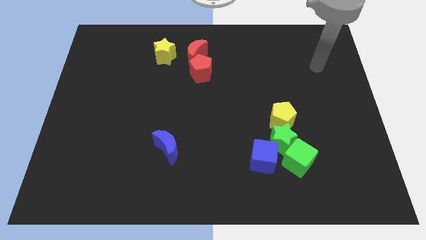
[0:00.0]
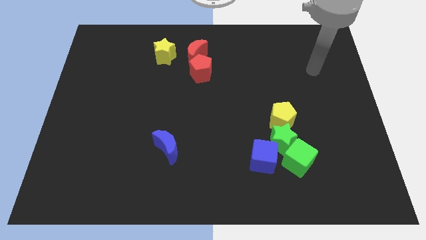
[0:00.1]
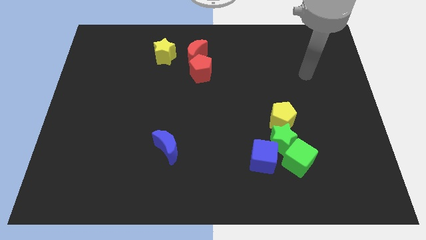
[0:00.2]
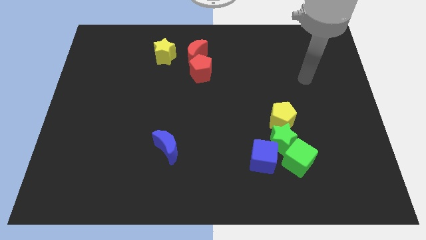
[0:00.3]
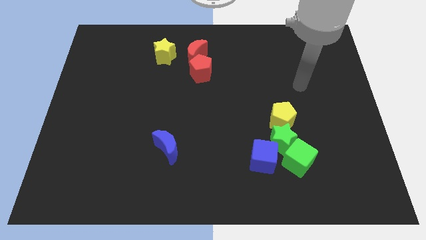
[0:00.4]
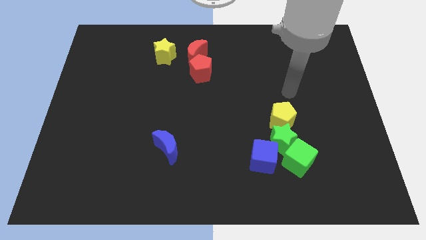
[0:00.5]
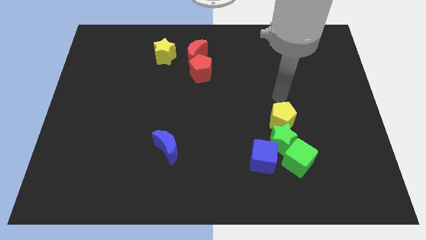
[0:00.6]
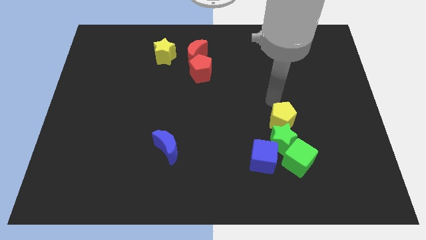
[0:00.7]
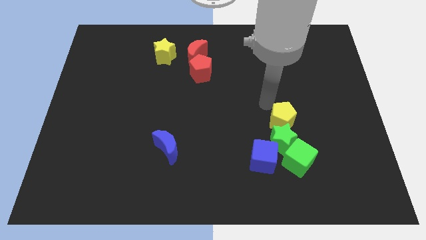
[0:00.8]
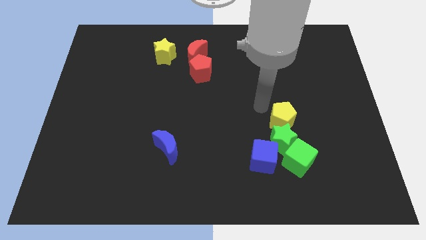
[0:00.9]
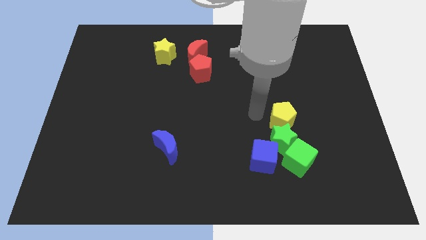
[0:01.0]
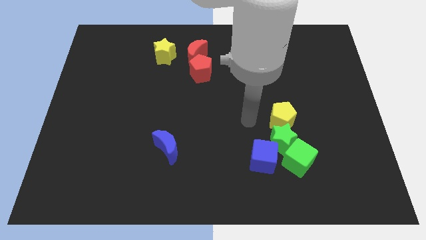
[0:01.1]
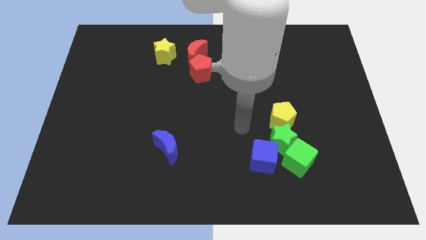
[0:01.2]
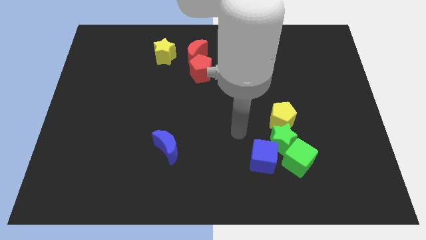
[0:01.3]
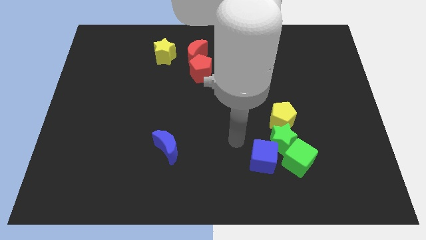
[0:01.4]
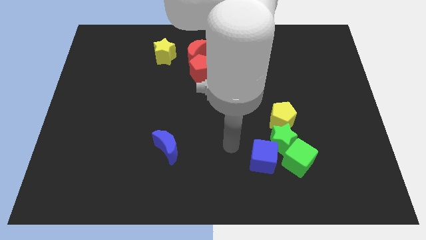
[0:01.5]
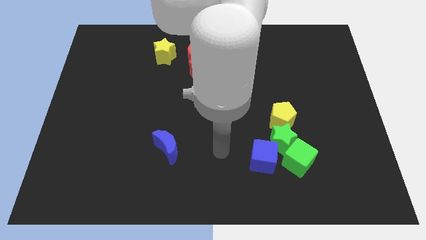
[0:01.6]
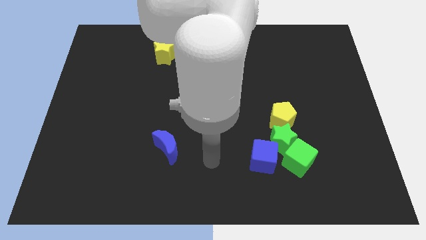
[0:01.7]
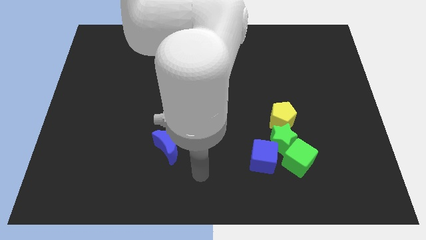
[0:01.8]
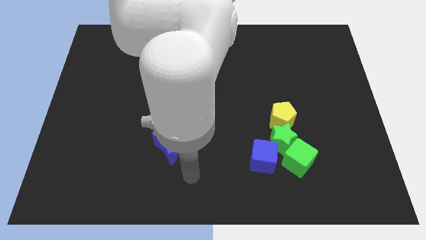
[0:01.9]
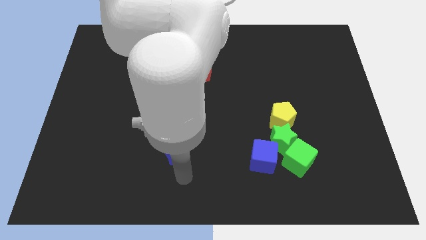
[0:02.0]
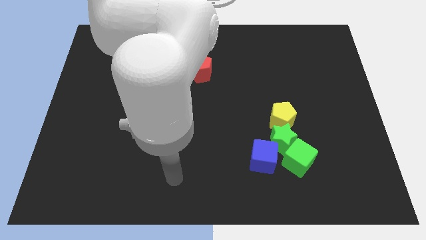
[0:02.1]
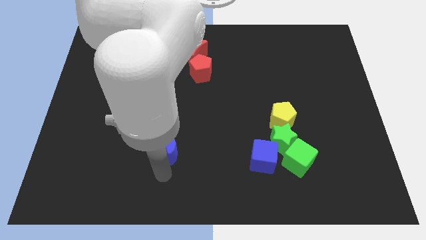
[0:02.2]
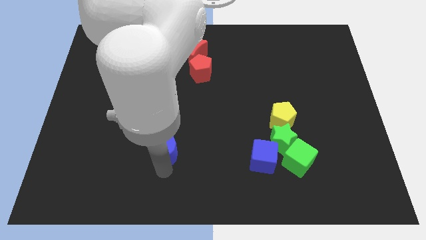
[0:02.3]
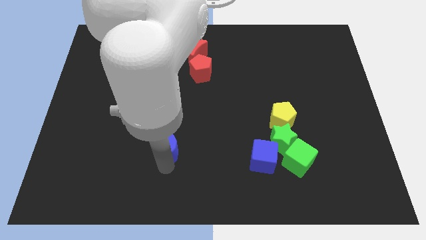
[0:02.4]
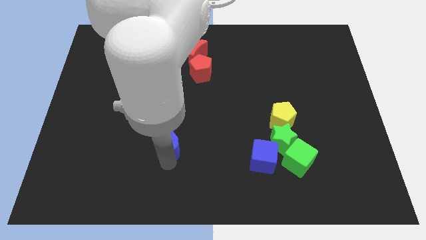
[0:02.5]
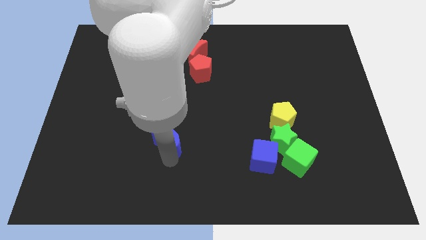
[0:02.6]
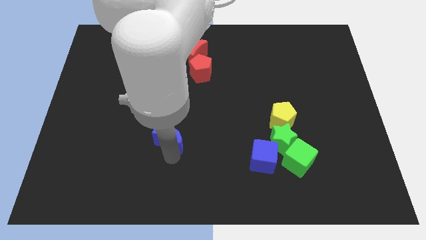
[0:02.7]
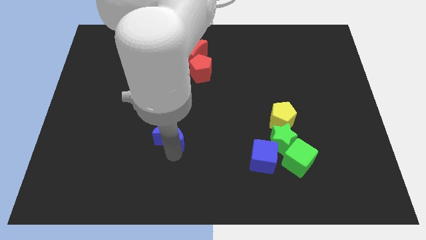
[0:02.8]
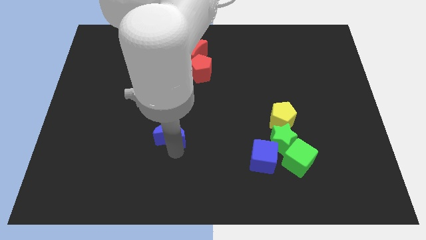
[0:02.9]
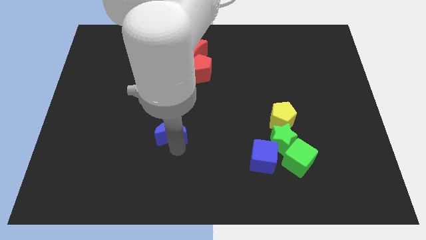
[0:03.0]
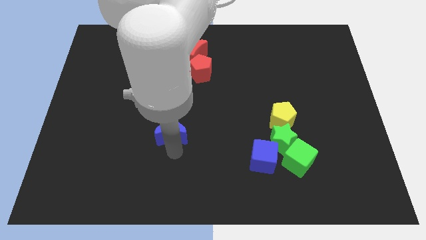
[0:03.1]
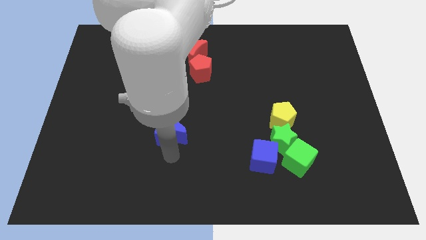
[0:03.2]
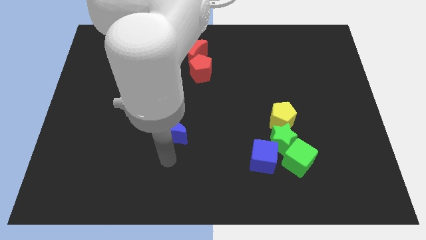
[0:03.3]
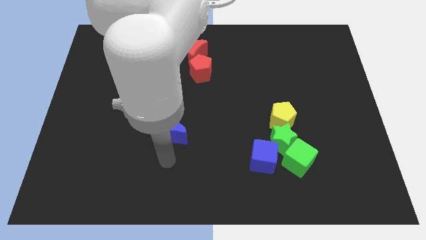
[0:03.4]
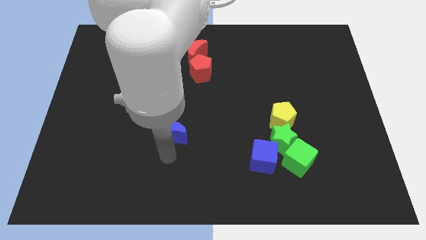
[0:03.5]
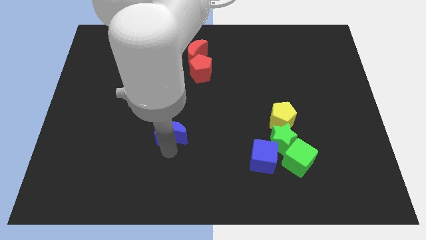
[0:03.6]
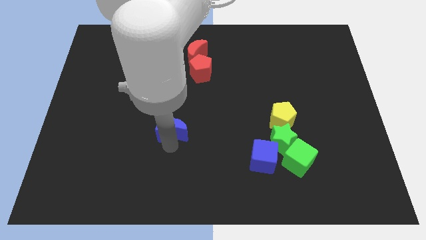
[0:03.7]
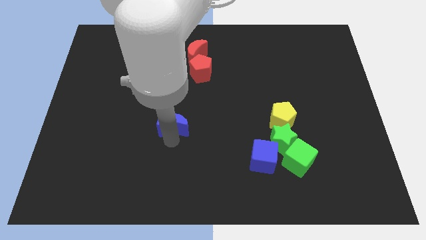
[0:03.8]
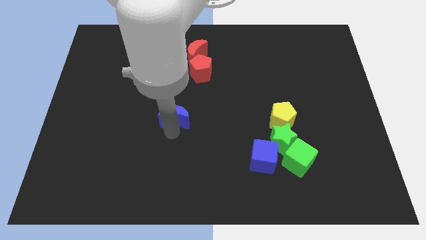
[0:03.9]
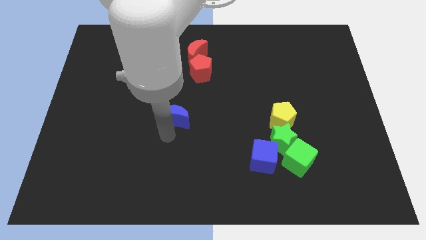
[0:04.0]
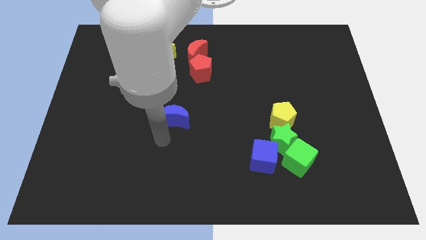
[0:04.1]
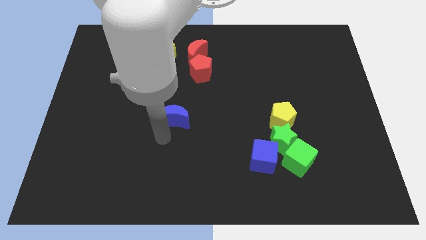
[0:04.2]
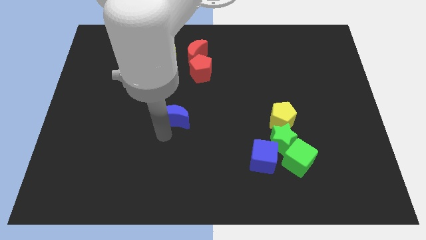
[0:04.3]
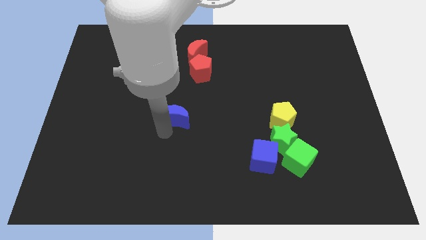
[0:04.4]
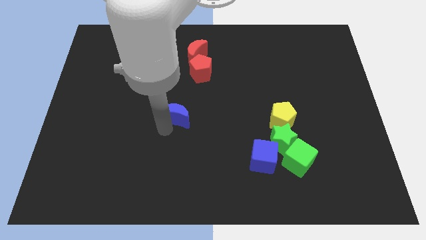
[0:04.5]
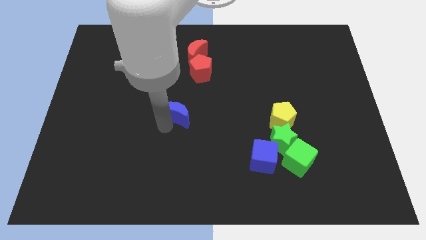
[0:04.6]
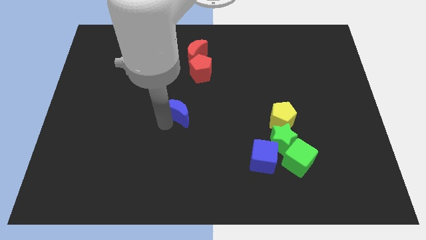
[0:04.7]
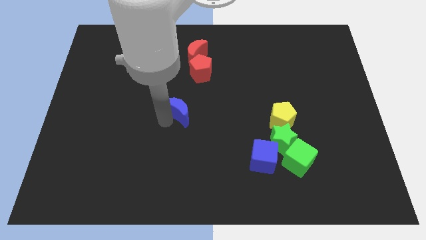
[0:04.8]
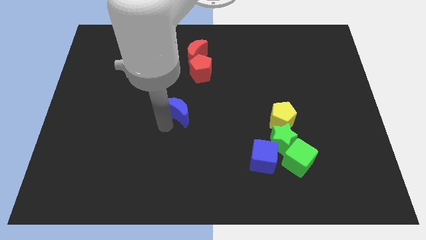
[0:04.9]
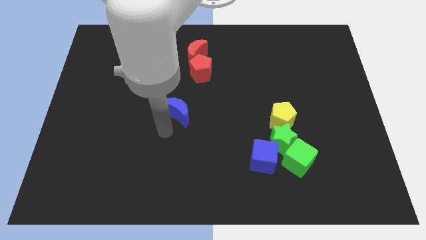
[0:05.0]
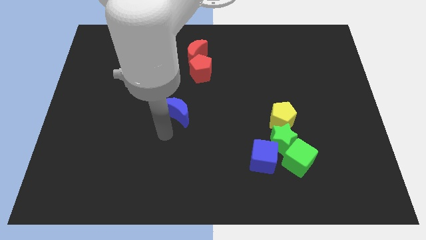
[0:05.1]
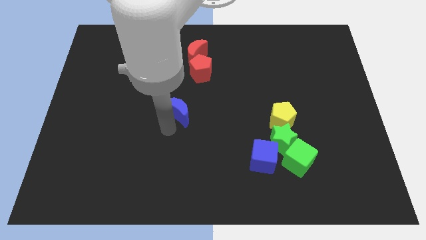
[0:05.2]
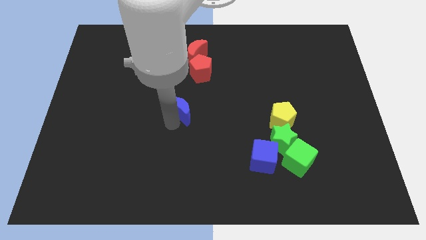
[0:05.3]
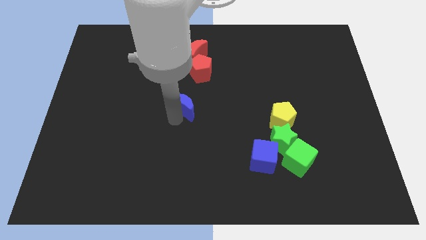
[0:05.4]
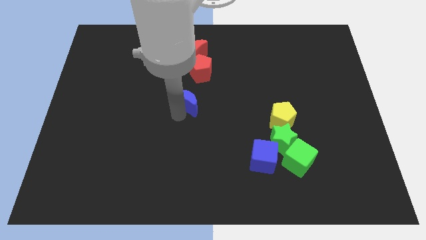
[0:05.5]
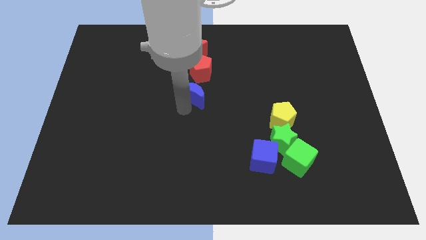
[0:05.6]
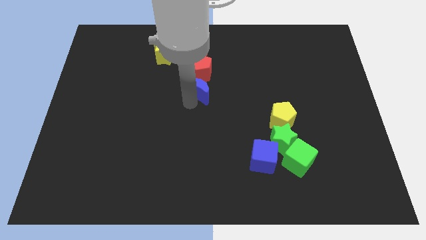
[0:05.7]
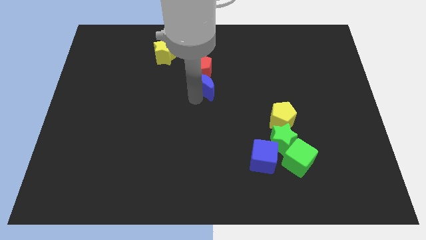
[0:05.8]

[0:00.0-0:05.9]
put the blue moon next to the red pentagon

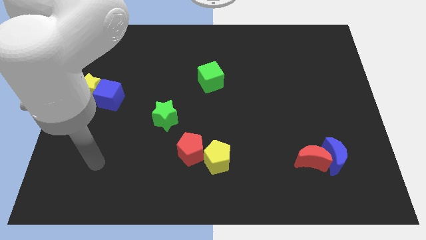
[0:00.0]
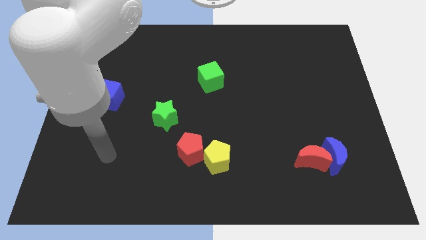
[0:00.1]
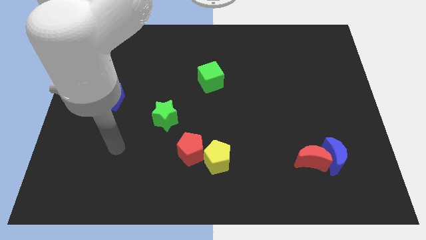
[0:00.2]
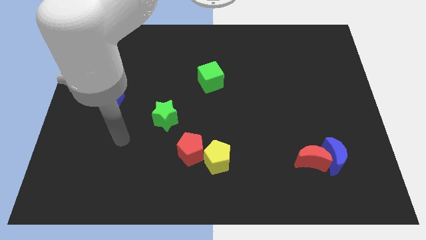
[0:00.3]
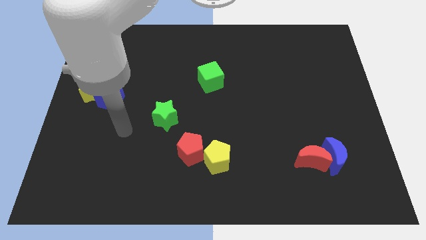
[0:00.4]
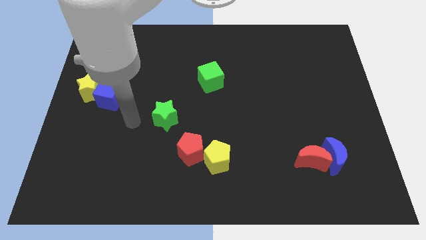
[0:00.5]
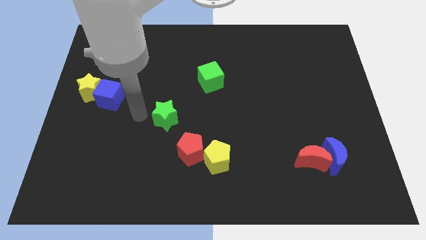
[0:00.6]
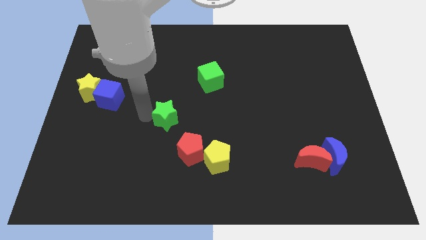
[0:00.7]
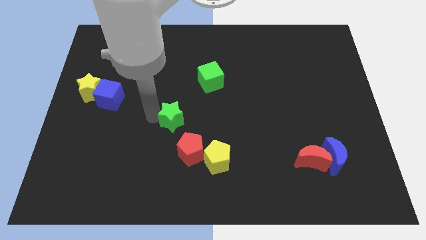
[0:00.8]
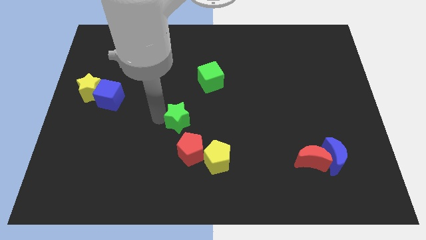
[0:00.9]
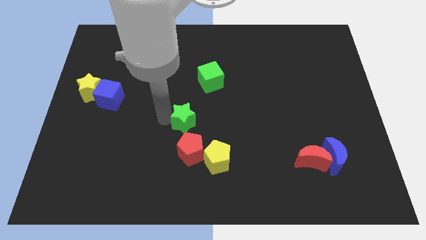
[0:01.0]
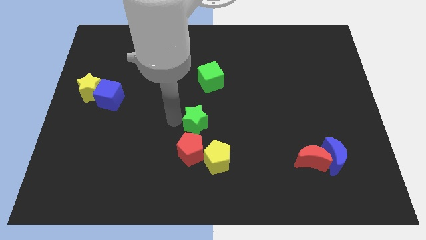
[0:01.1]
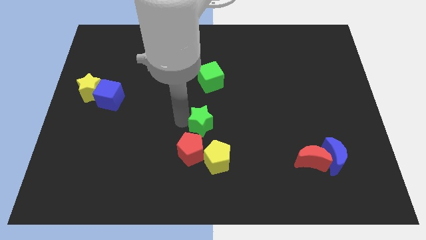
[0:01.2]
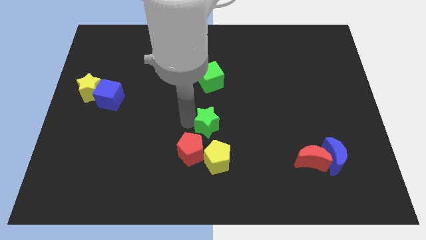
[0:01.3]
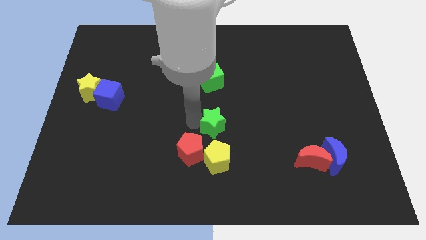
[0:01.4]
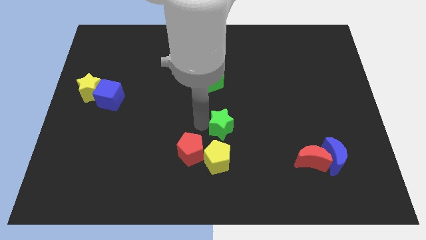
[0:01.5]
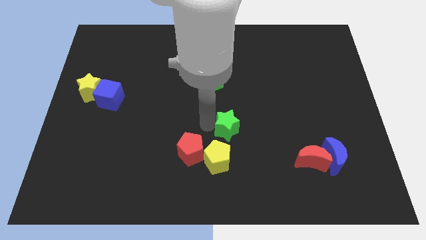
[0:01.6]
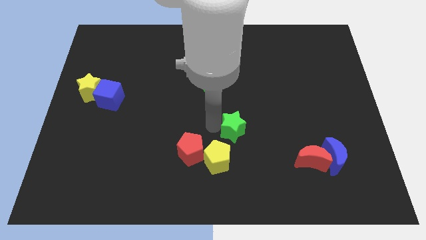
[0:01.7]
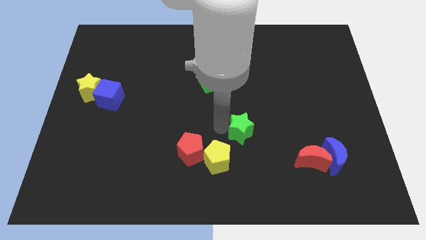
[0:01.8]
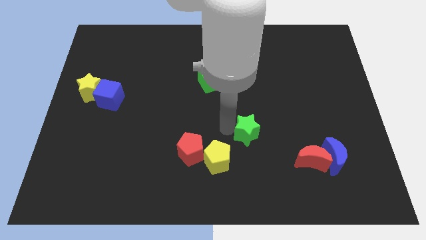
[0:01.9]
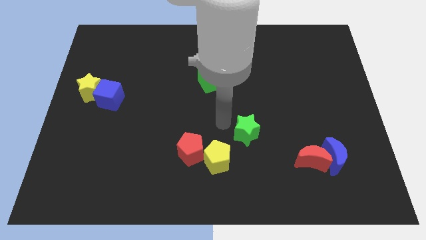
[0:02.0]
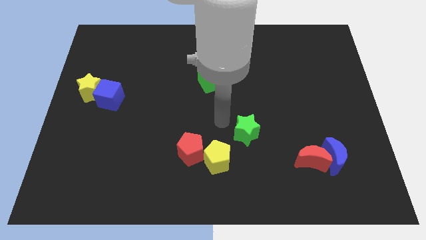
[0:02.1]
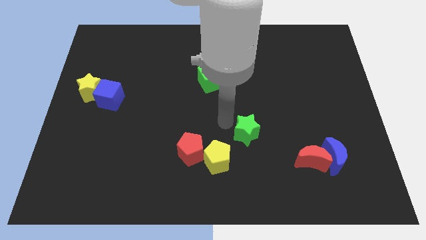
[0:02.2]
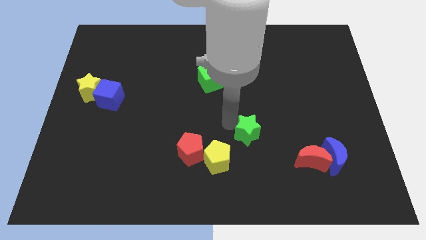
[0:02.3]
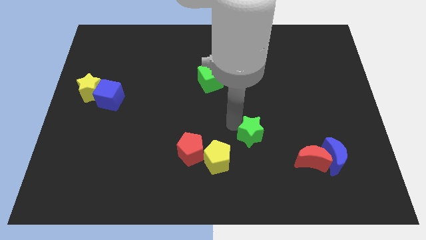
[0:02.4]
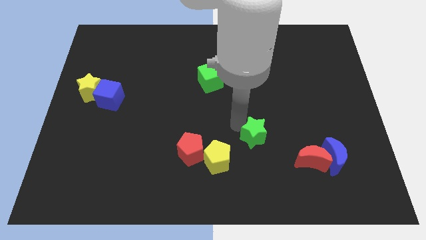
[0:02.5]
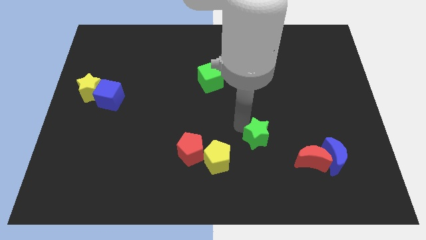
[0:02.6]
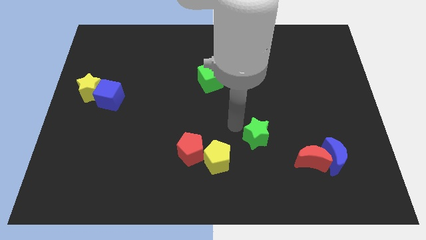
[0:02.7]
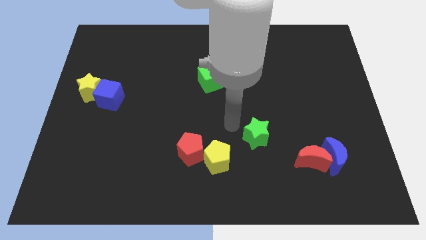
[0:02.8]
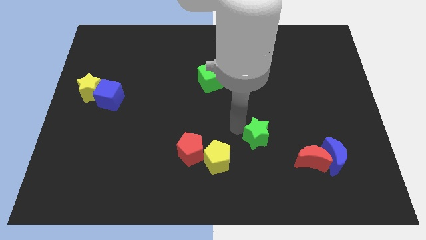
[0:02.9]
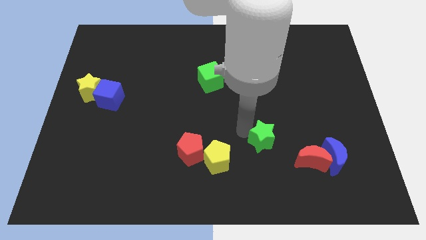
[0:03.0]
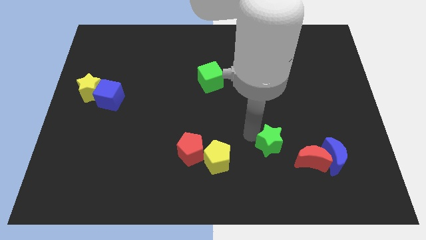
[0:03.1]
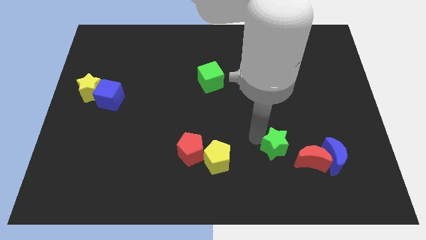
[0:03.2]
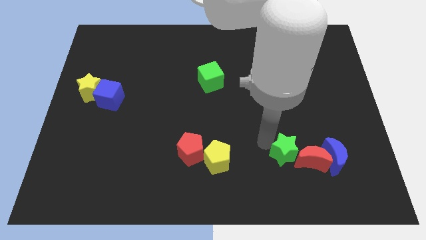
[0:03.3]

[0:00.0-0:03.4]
put the green star to the red moon
